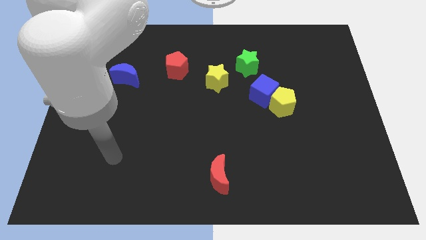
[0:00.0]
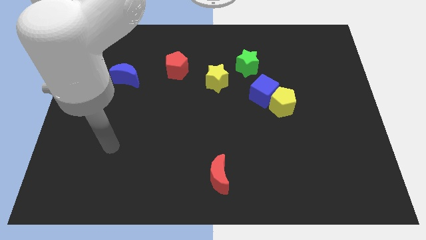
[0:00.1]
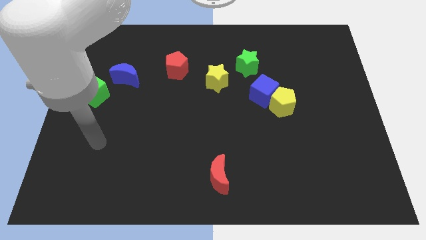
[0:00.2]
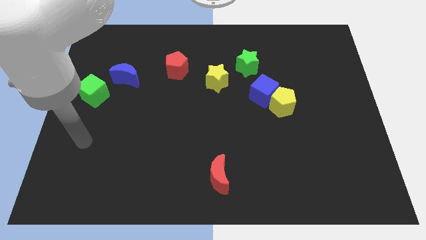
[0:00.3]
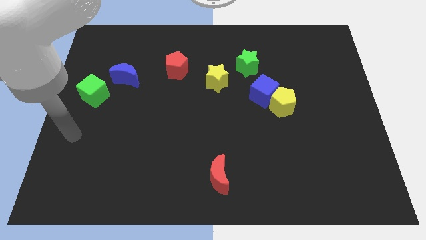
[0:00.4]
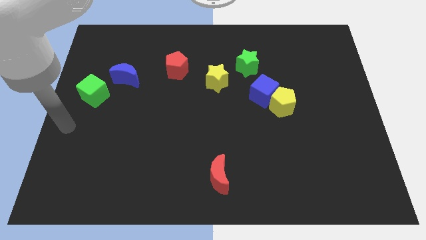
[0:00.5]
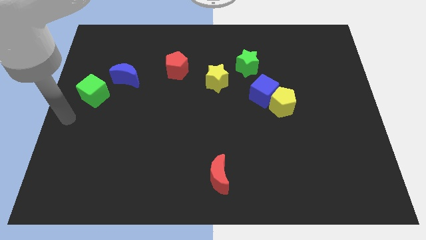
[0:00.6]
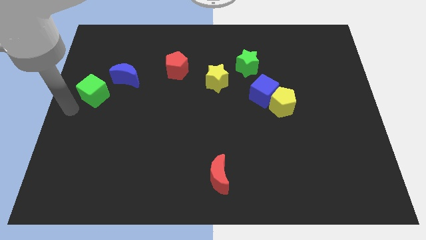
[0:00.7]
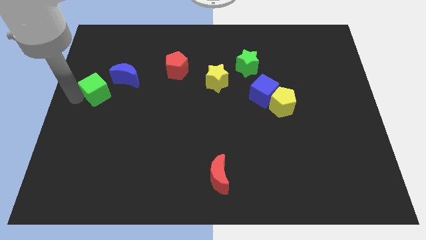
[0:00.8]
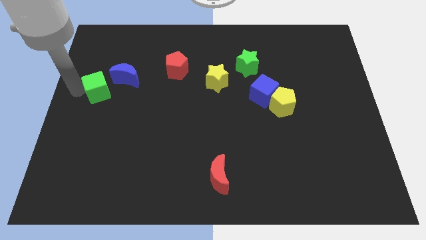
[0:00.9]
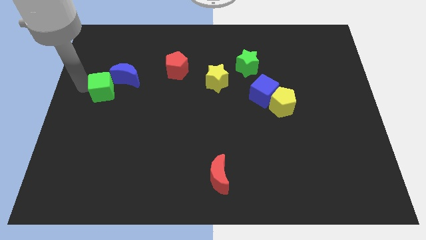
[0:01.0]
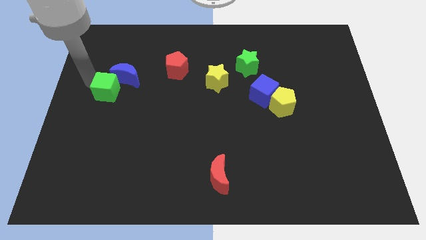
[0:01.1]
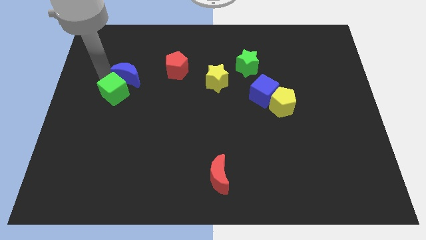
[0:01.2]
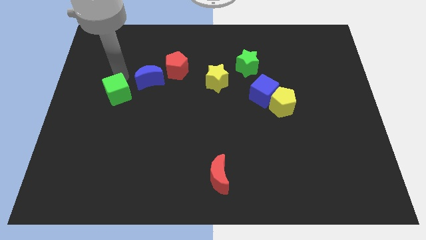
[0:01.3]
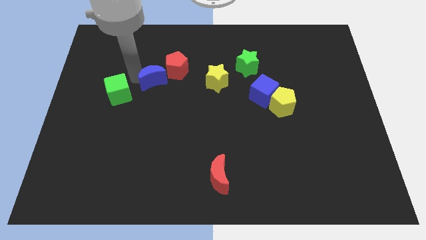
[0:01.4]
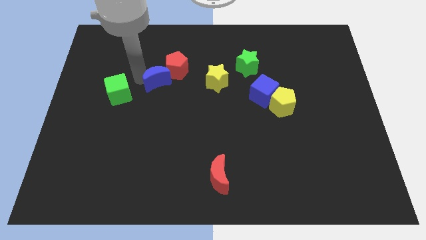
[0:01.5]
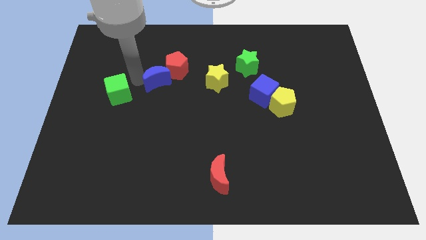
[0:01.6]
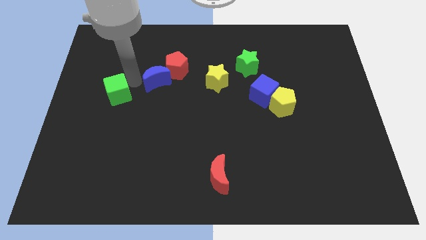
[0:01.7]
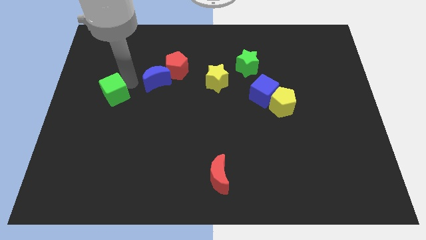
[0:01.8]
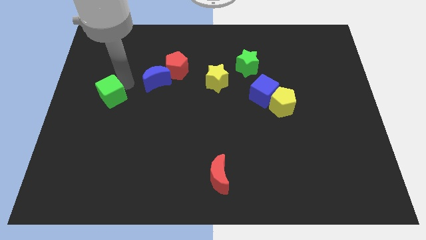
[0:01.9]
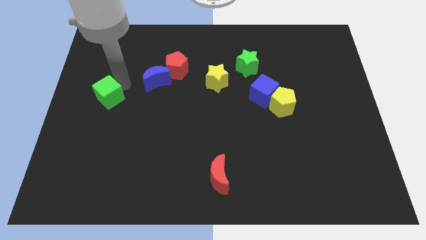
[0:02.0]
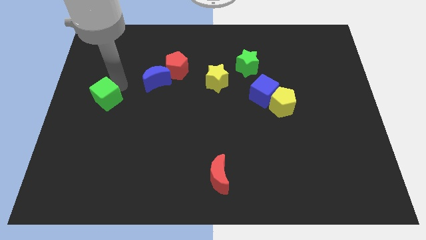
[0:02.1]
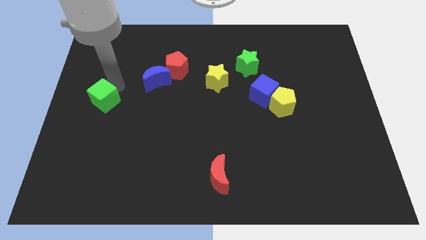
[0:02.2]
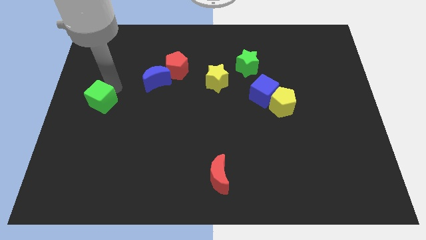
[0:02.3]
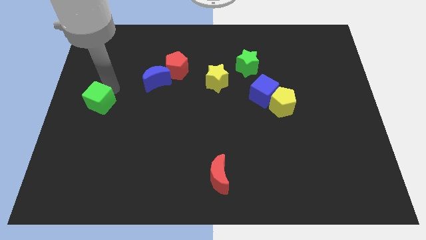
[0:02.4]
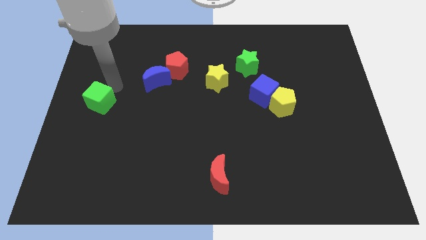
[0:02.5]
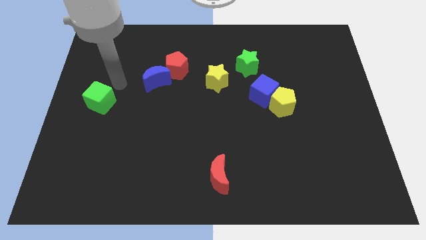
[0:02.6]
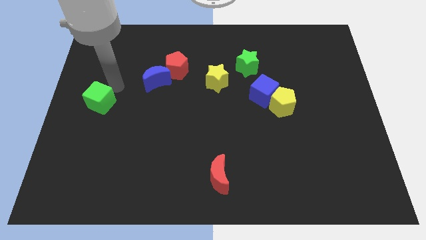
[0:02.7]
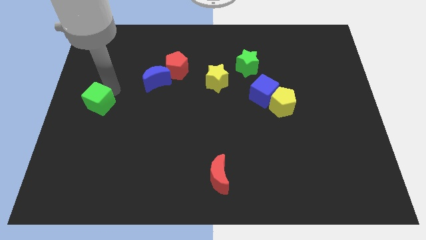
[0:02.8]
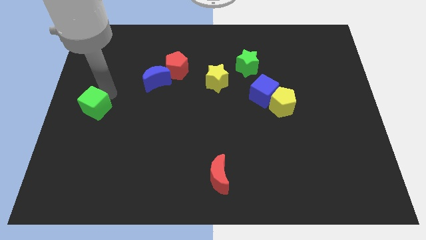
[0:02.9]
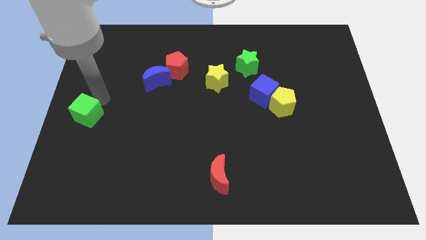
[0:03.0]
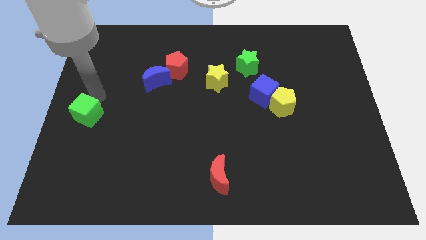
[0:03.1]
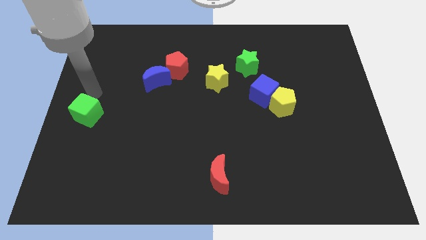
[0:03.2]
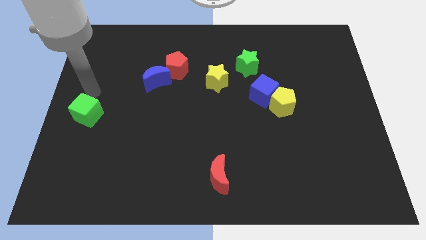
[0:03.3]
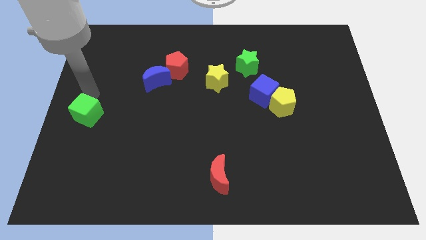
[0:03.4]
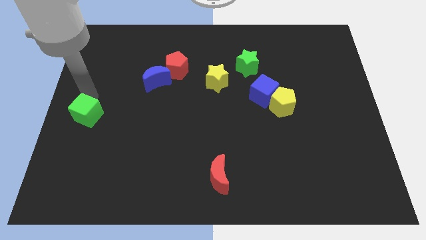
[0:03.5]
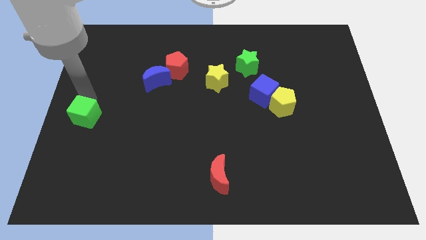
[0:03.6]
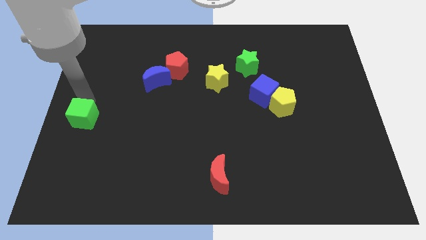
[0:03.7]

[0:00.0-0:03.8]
slightly slide the green cube downwards

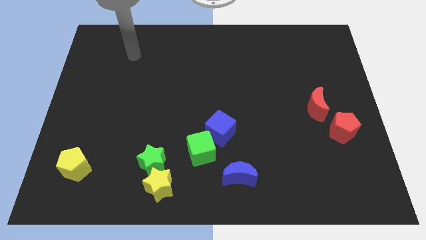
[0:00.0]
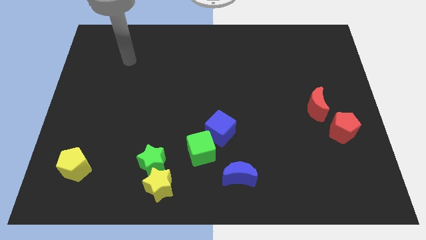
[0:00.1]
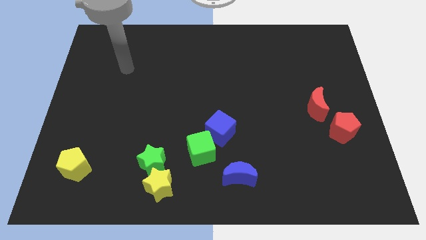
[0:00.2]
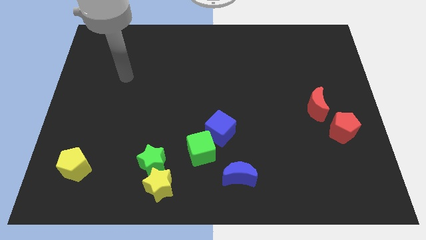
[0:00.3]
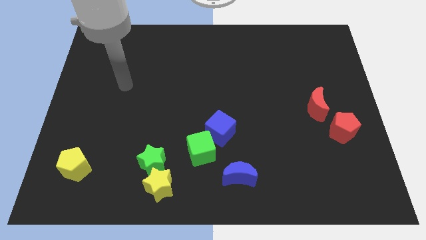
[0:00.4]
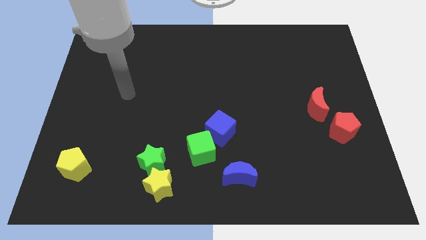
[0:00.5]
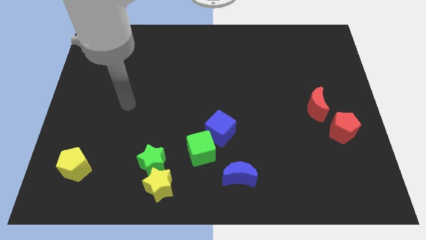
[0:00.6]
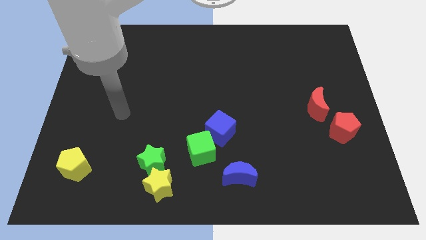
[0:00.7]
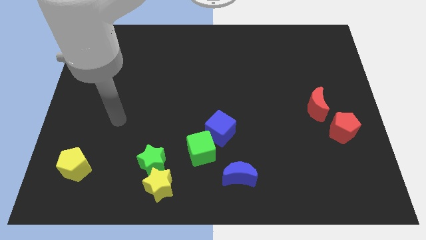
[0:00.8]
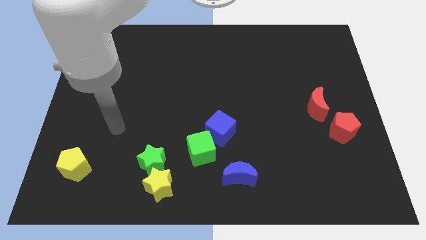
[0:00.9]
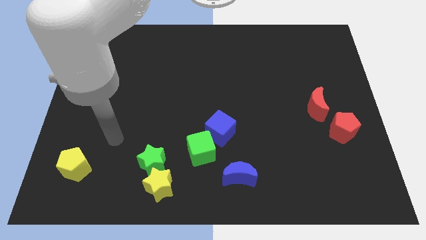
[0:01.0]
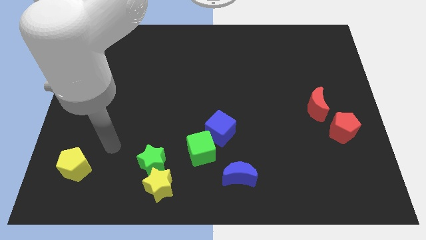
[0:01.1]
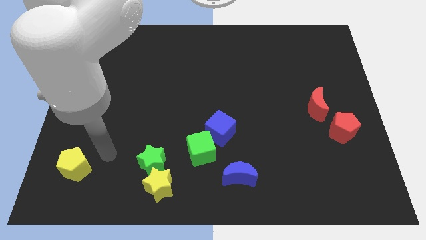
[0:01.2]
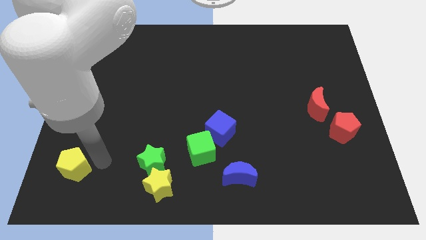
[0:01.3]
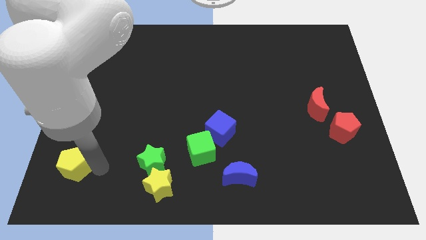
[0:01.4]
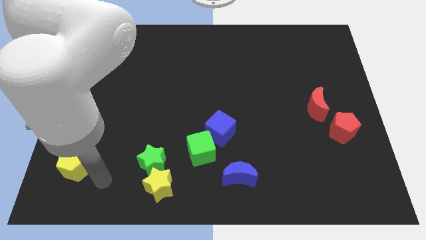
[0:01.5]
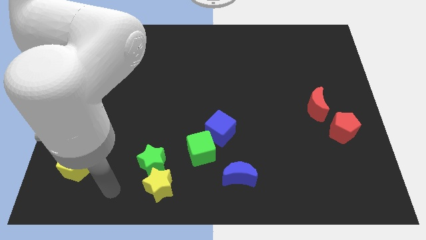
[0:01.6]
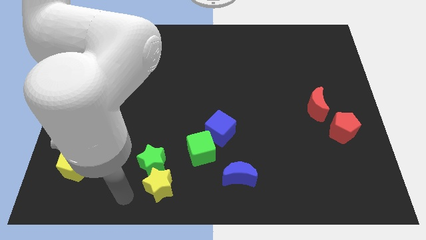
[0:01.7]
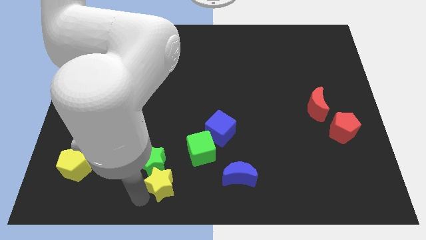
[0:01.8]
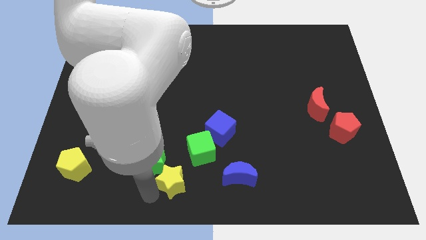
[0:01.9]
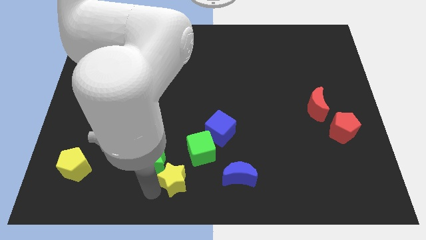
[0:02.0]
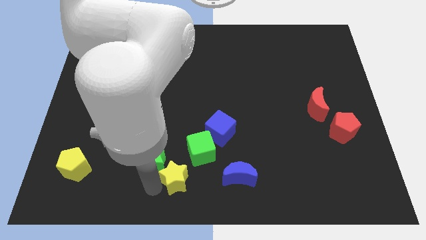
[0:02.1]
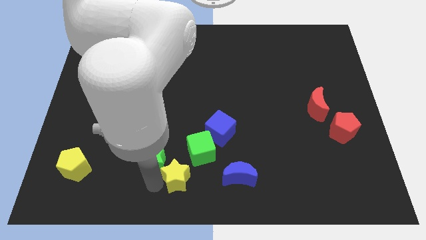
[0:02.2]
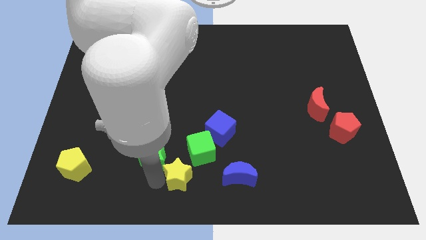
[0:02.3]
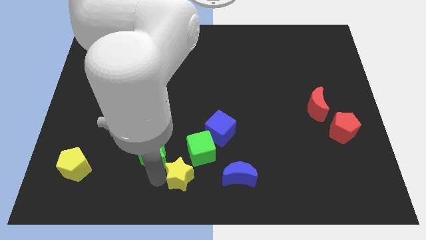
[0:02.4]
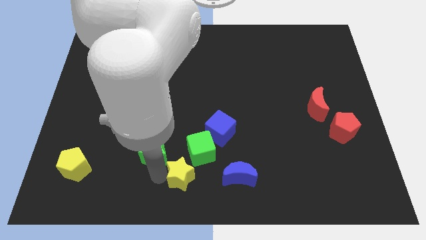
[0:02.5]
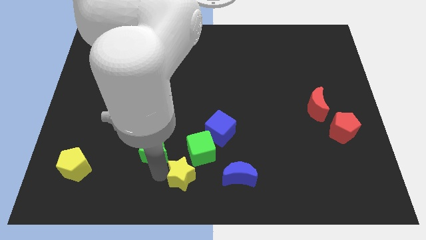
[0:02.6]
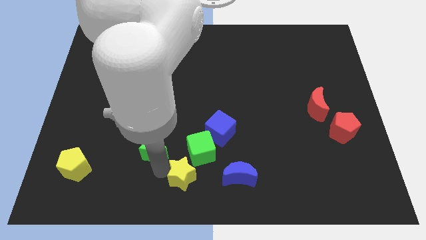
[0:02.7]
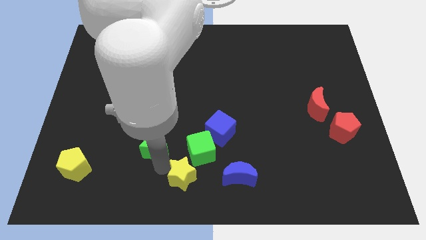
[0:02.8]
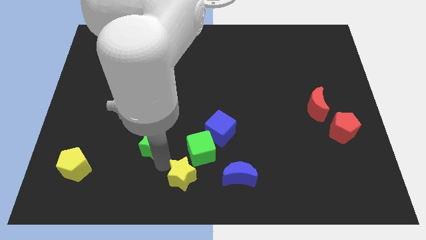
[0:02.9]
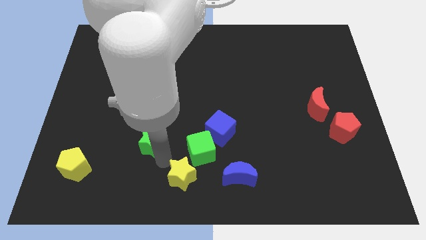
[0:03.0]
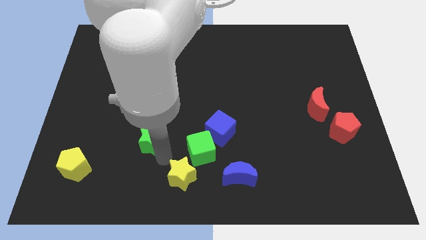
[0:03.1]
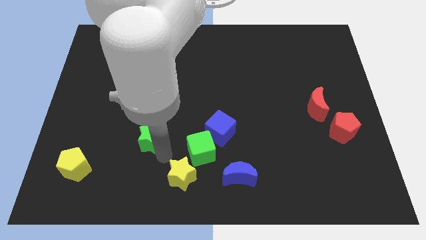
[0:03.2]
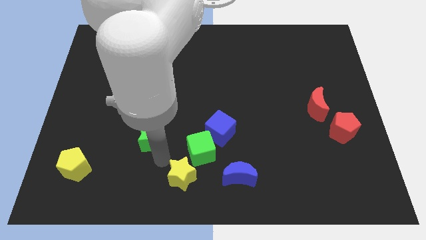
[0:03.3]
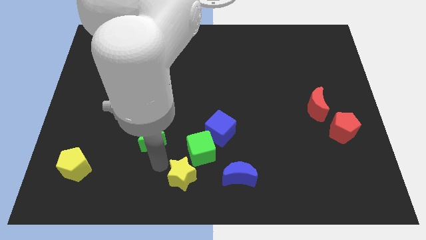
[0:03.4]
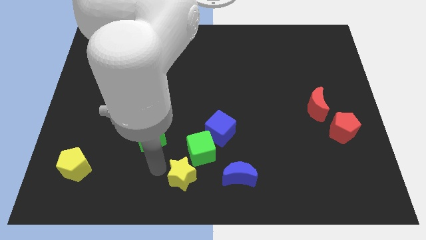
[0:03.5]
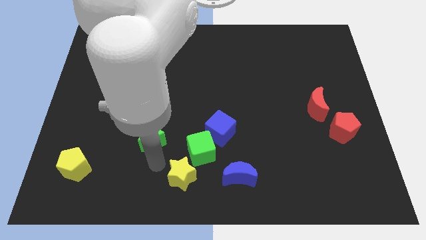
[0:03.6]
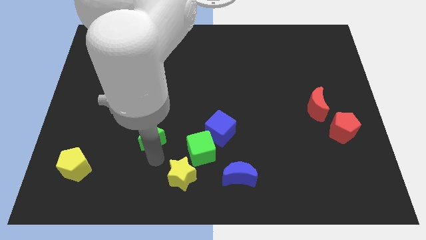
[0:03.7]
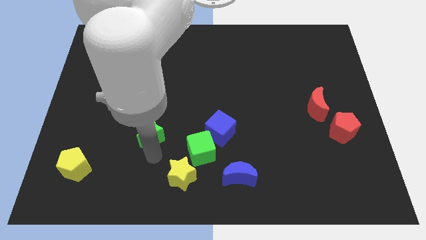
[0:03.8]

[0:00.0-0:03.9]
slide the green star upwards a bit

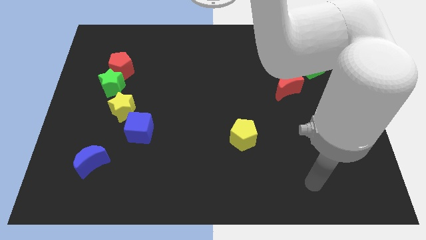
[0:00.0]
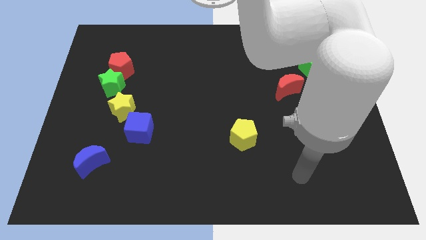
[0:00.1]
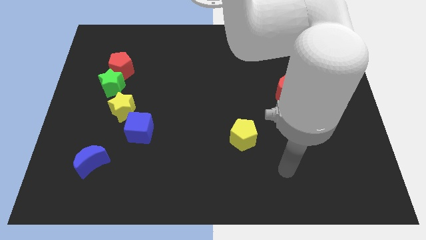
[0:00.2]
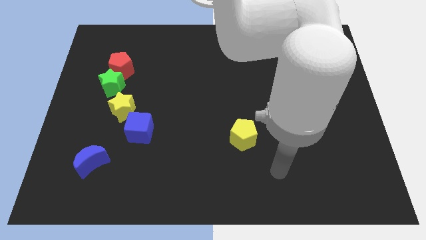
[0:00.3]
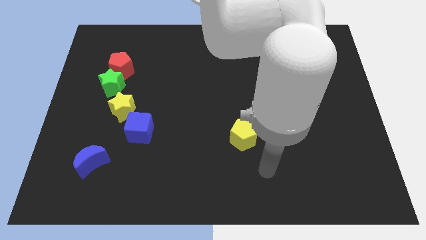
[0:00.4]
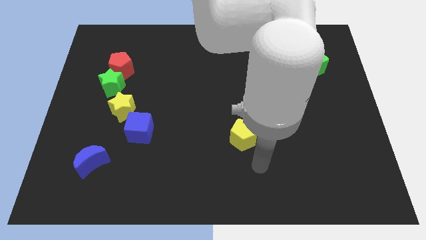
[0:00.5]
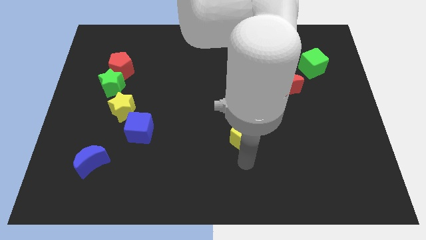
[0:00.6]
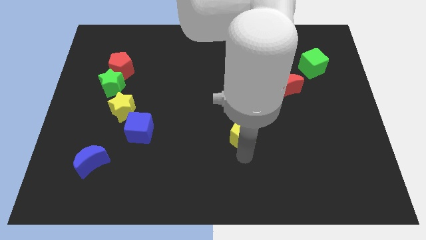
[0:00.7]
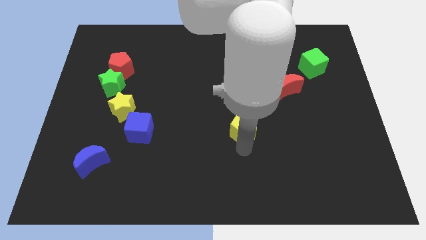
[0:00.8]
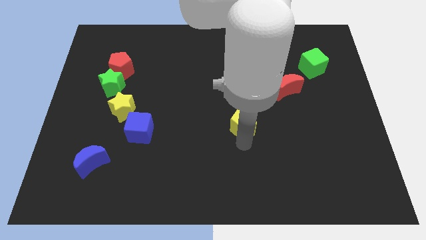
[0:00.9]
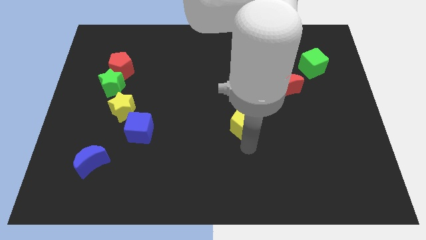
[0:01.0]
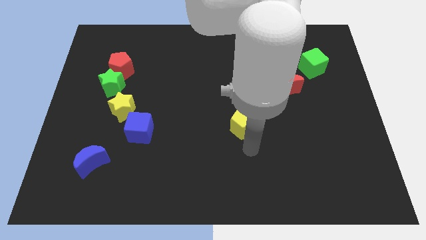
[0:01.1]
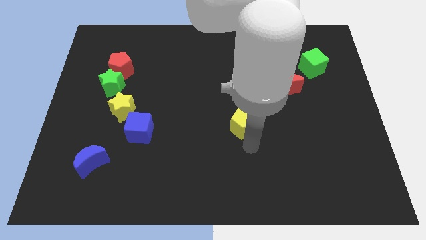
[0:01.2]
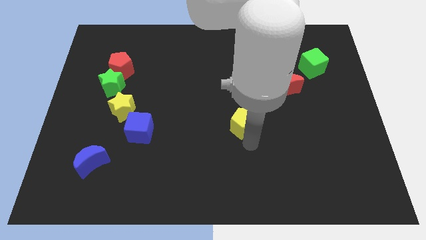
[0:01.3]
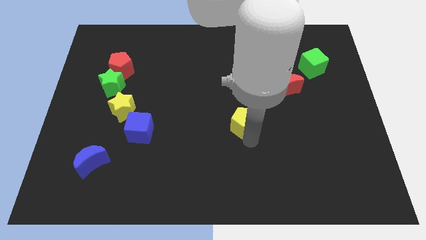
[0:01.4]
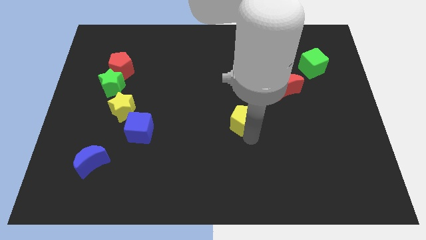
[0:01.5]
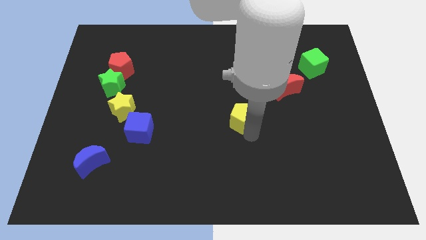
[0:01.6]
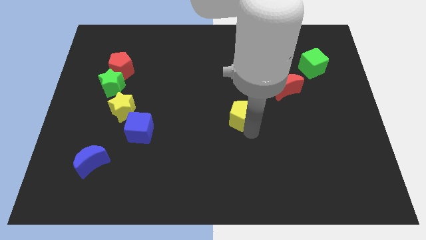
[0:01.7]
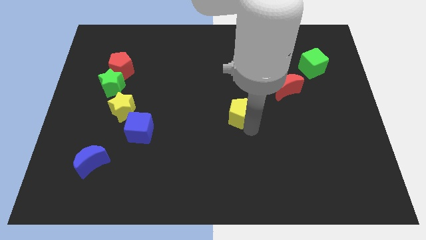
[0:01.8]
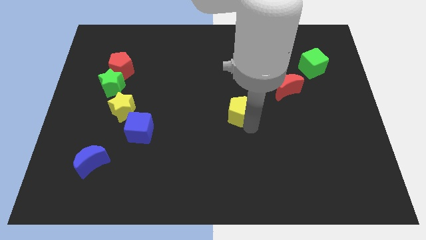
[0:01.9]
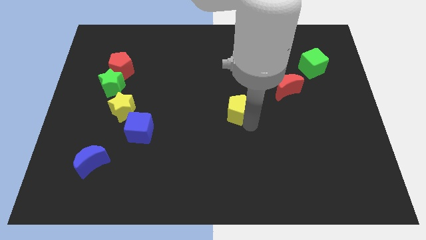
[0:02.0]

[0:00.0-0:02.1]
move the yellow pentagon upwards a little
